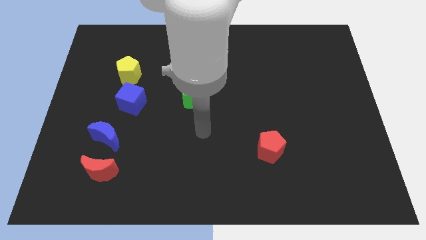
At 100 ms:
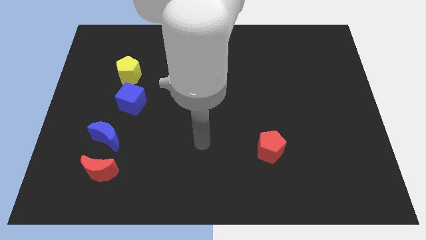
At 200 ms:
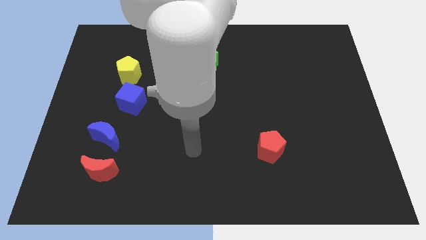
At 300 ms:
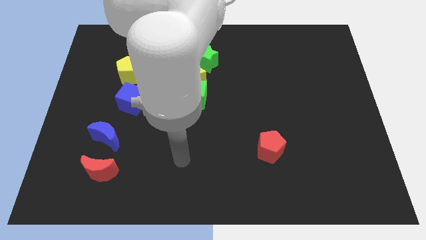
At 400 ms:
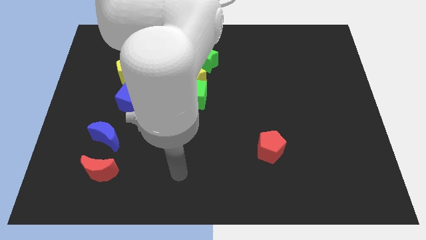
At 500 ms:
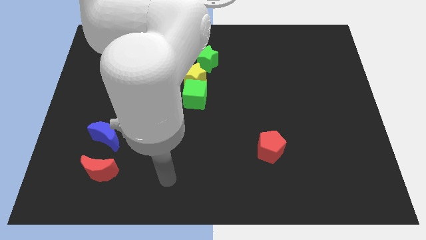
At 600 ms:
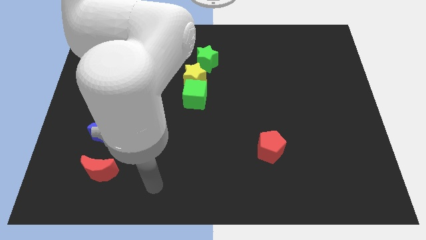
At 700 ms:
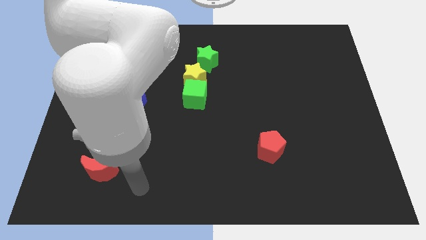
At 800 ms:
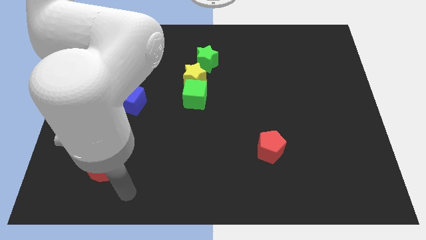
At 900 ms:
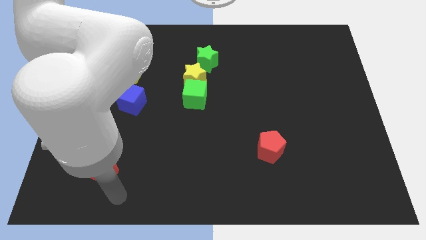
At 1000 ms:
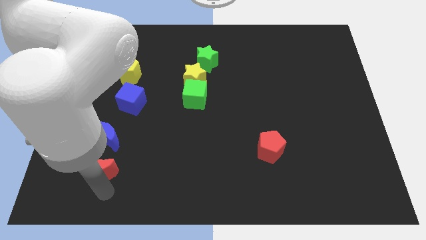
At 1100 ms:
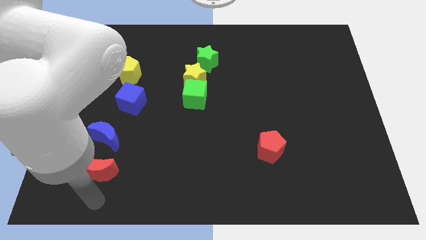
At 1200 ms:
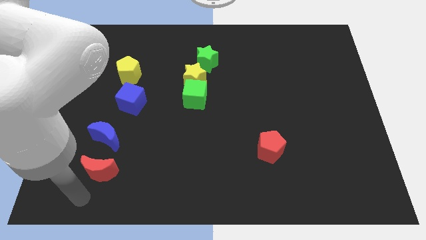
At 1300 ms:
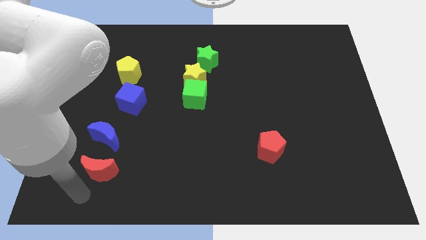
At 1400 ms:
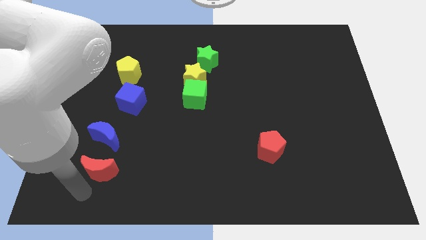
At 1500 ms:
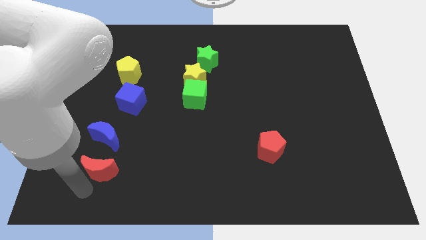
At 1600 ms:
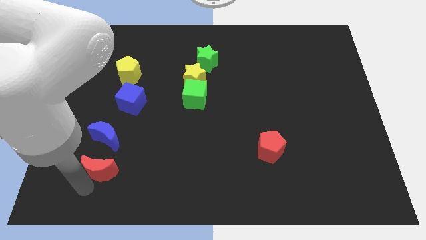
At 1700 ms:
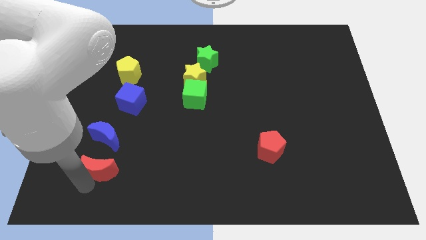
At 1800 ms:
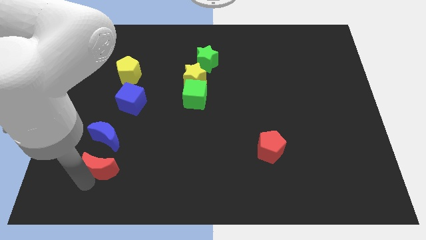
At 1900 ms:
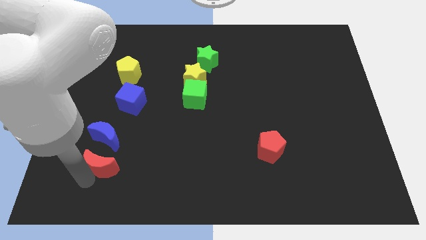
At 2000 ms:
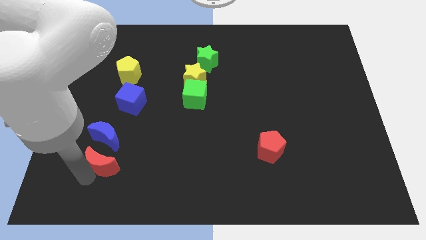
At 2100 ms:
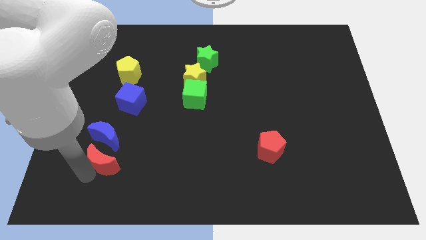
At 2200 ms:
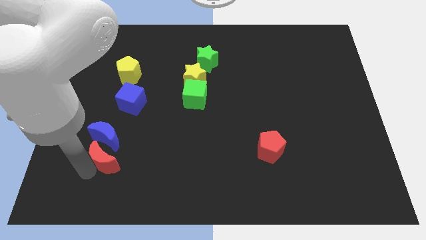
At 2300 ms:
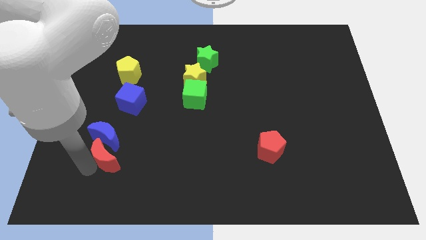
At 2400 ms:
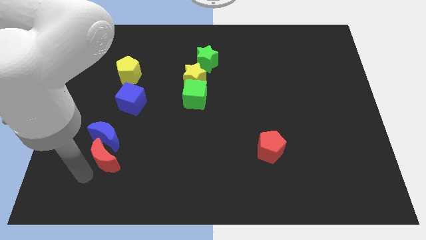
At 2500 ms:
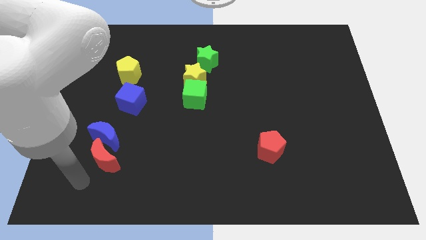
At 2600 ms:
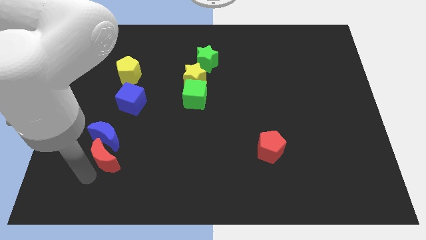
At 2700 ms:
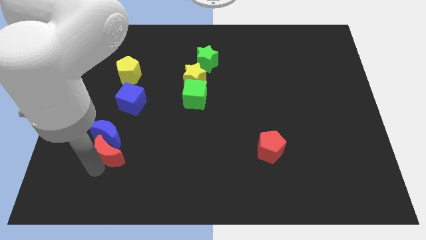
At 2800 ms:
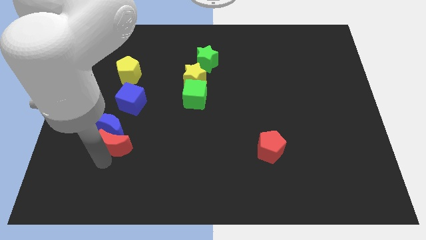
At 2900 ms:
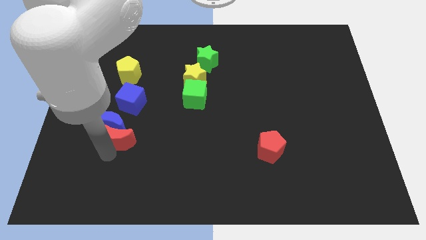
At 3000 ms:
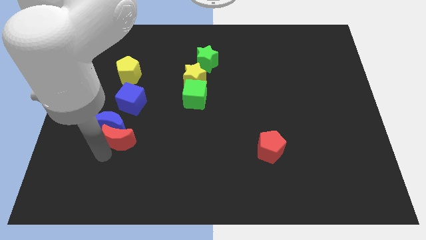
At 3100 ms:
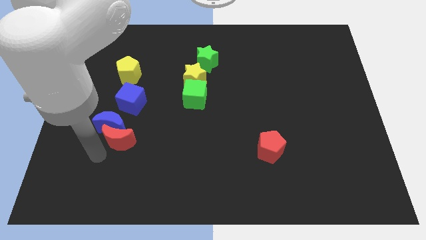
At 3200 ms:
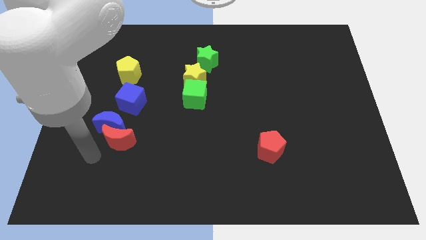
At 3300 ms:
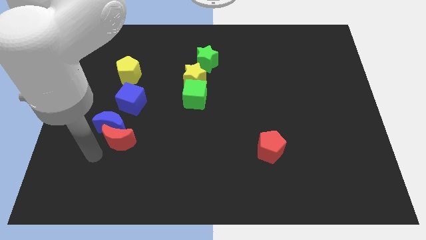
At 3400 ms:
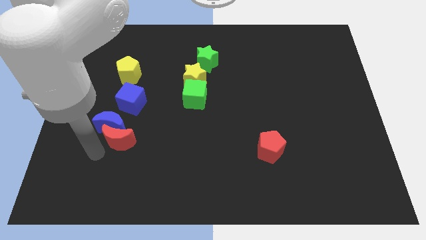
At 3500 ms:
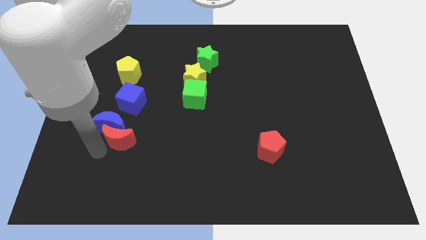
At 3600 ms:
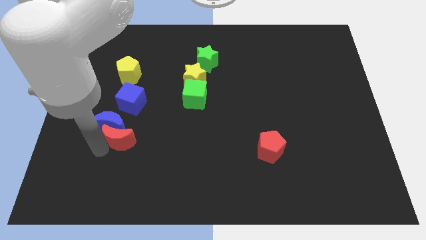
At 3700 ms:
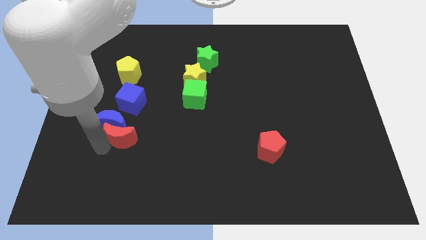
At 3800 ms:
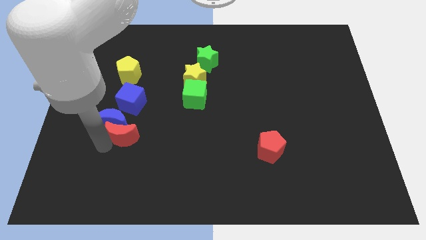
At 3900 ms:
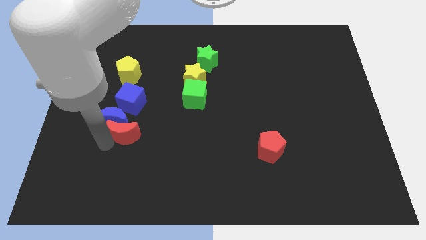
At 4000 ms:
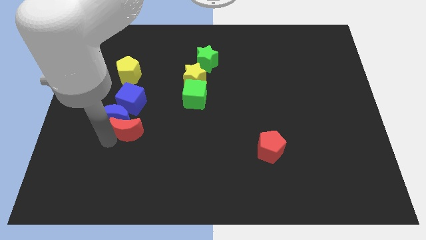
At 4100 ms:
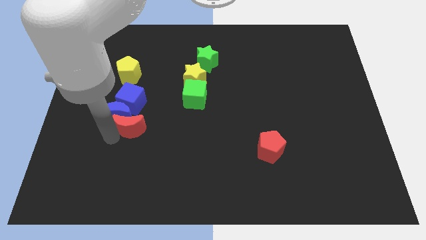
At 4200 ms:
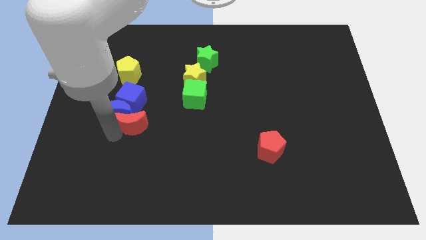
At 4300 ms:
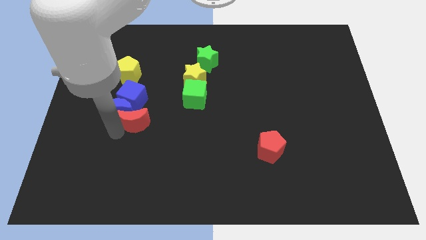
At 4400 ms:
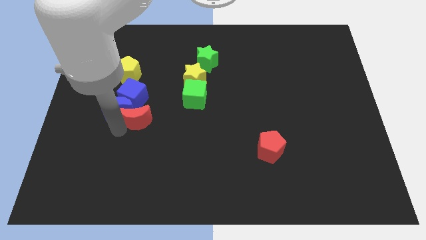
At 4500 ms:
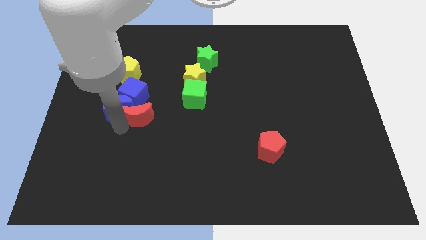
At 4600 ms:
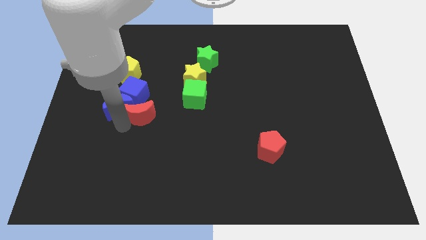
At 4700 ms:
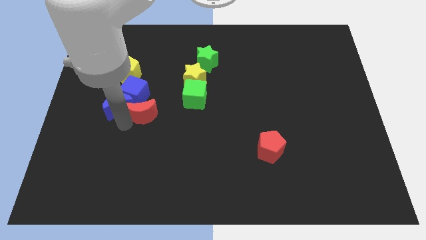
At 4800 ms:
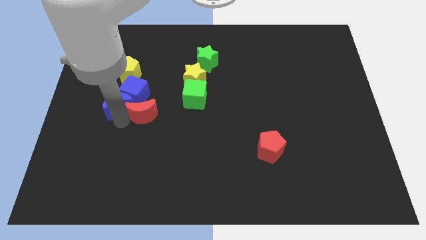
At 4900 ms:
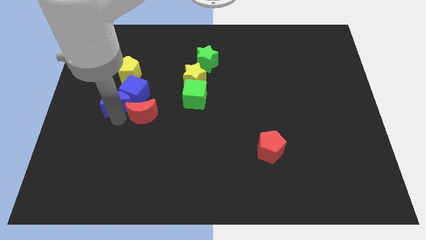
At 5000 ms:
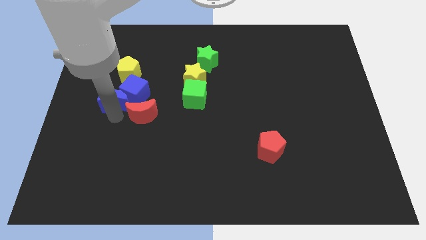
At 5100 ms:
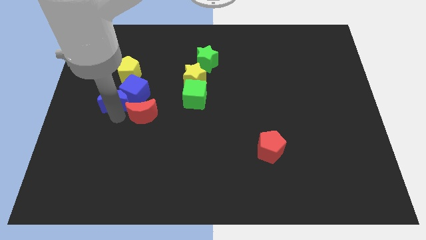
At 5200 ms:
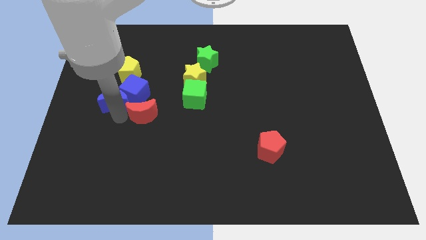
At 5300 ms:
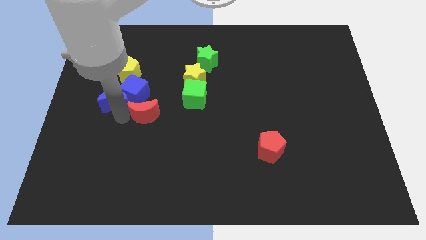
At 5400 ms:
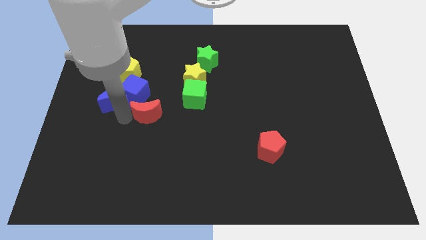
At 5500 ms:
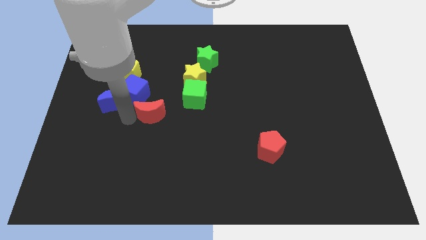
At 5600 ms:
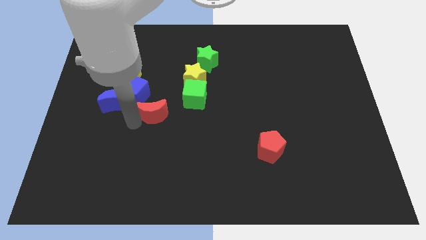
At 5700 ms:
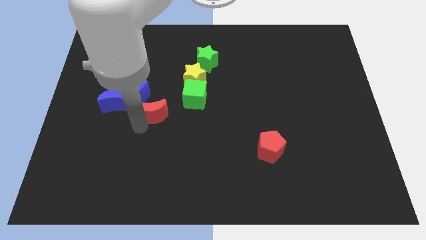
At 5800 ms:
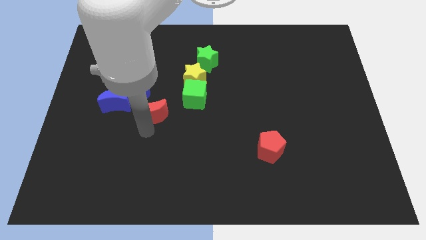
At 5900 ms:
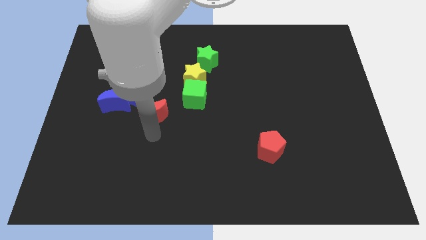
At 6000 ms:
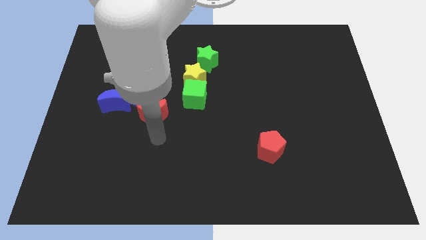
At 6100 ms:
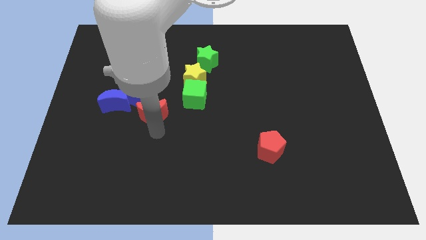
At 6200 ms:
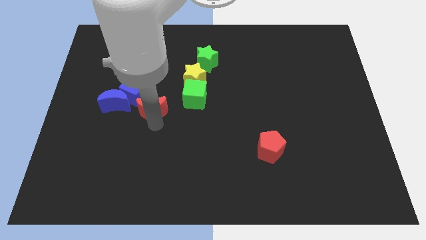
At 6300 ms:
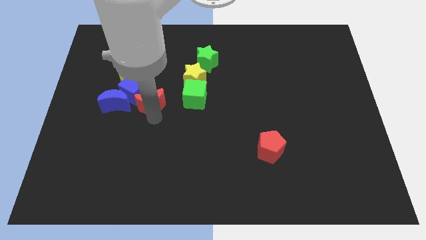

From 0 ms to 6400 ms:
push the red moon diagonally down and to the right of the yellow pentagon
